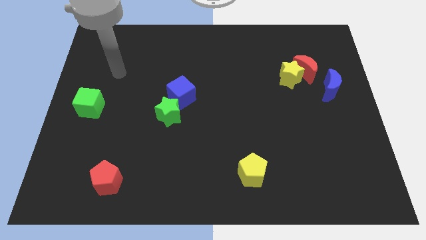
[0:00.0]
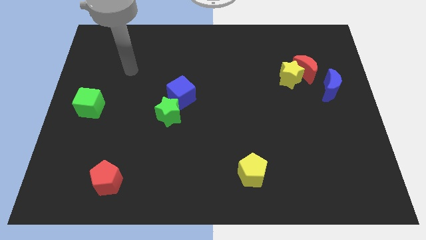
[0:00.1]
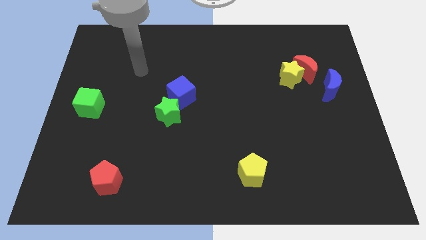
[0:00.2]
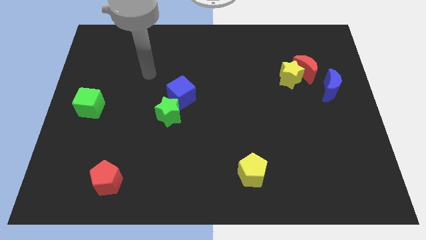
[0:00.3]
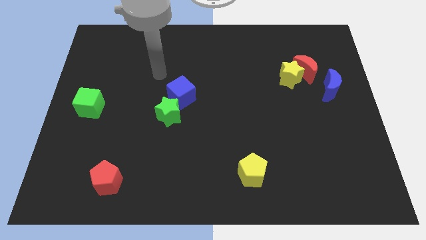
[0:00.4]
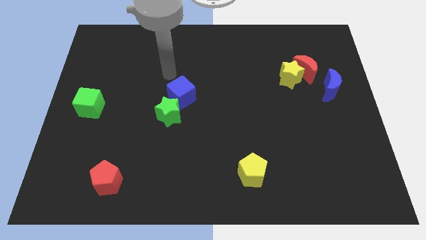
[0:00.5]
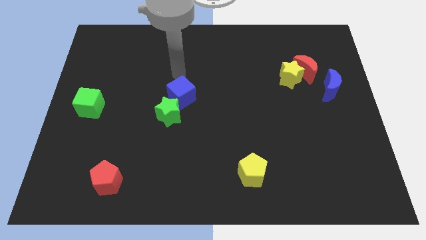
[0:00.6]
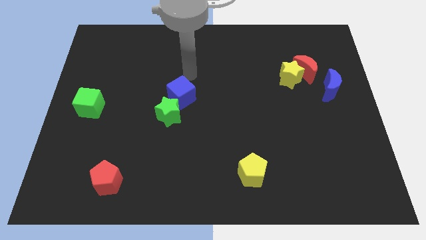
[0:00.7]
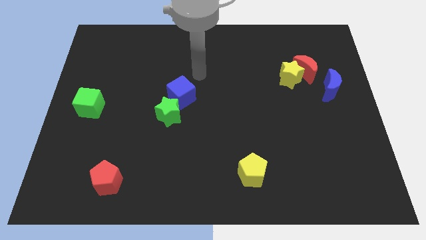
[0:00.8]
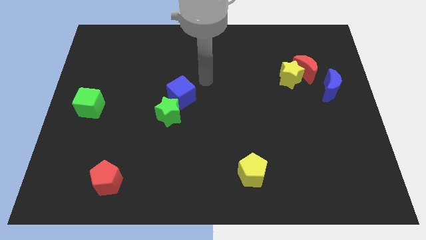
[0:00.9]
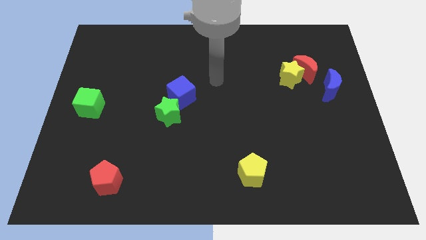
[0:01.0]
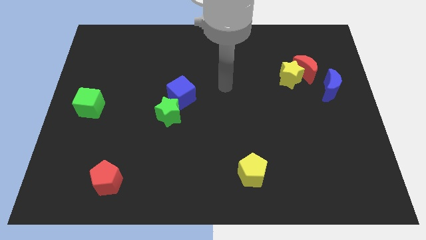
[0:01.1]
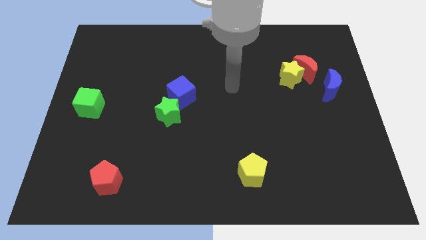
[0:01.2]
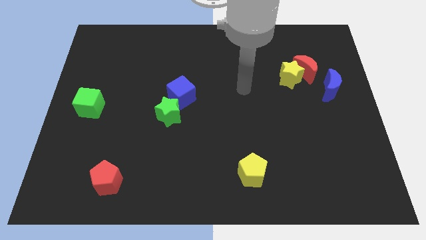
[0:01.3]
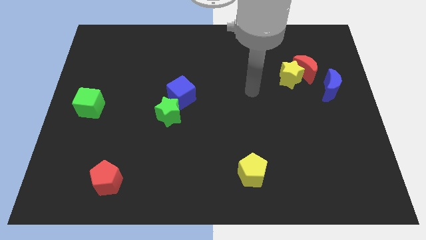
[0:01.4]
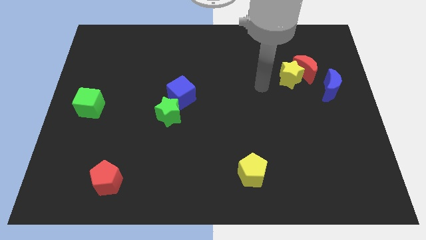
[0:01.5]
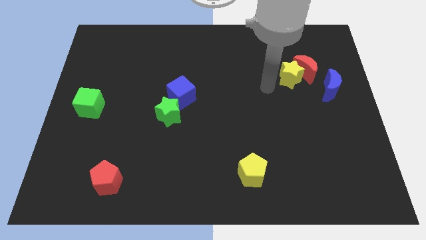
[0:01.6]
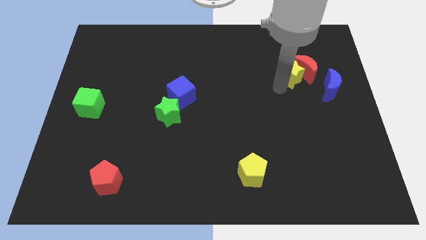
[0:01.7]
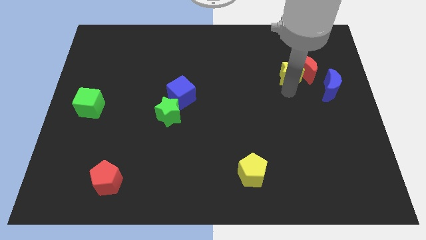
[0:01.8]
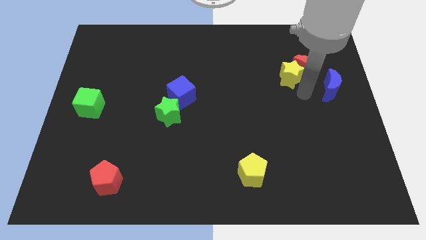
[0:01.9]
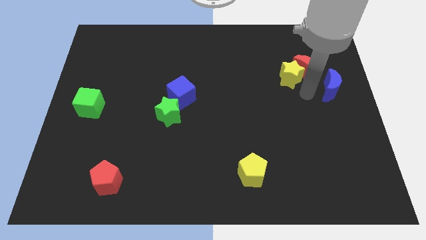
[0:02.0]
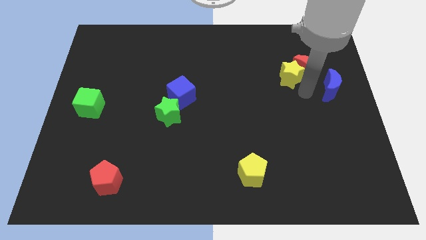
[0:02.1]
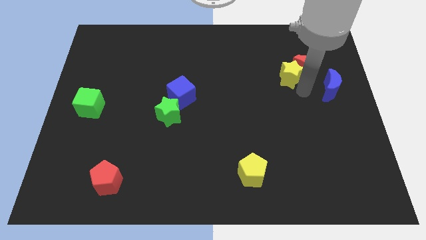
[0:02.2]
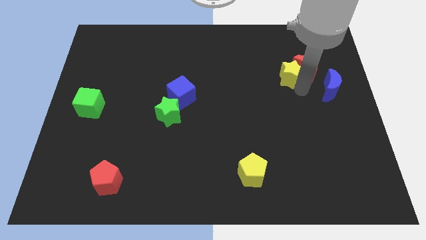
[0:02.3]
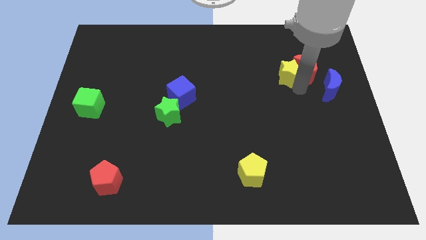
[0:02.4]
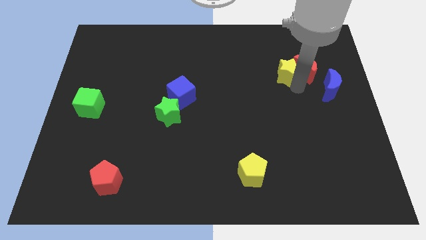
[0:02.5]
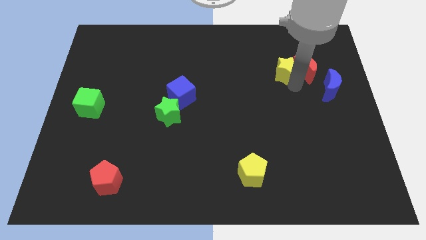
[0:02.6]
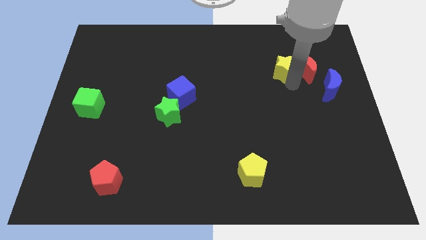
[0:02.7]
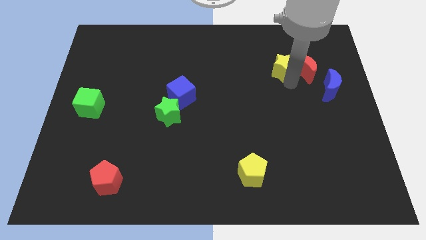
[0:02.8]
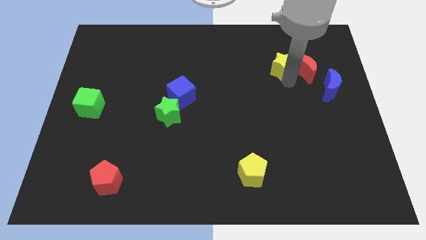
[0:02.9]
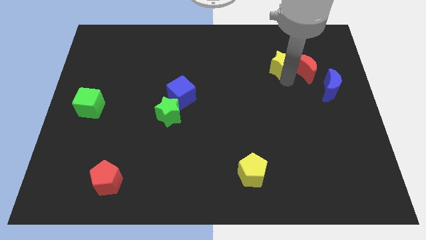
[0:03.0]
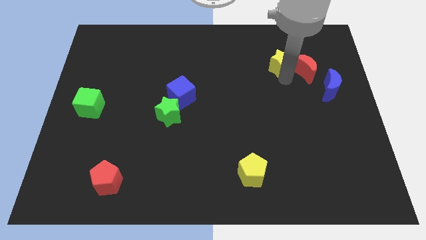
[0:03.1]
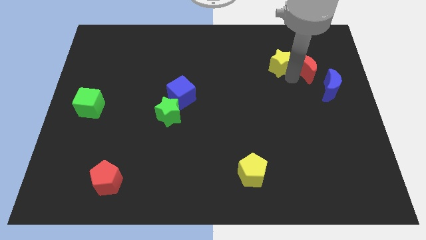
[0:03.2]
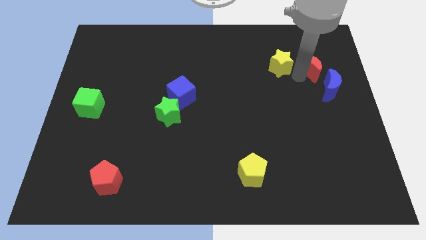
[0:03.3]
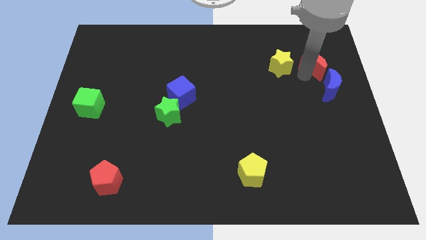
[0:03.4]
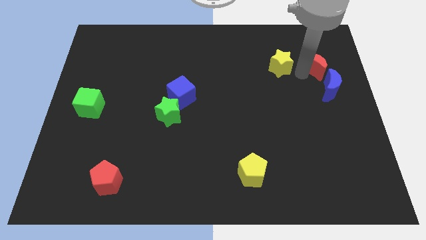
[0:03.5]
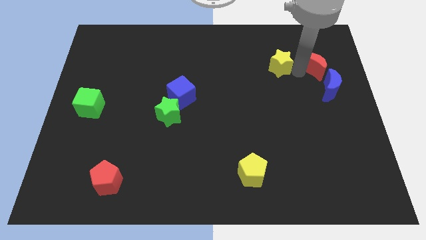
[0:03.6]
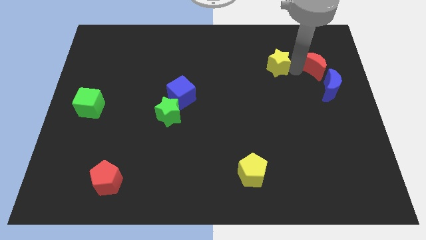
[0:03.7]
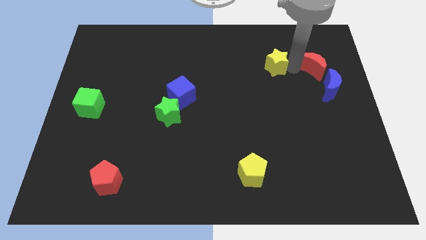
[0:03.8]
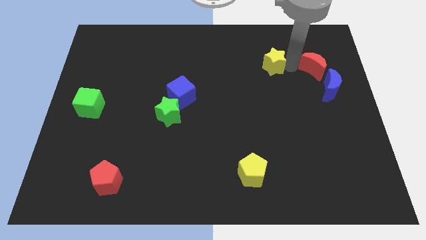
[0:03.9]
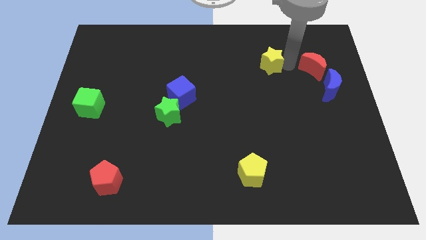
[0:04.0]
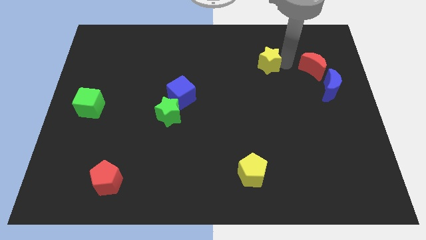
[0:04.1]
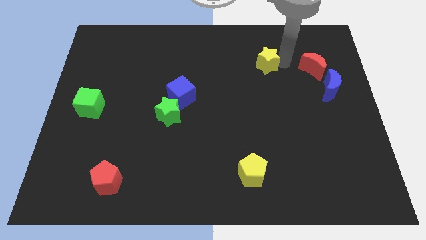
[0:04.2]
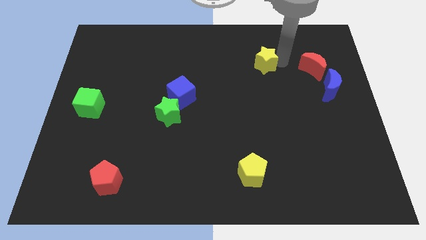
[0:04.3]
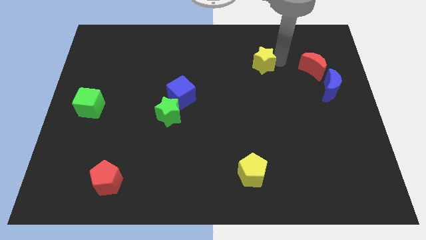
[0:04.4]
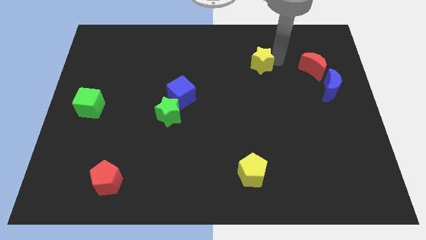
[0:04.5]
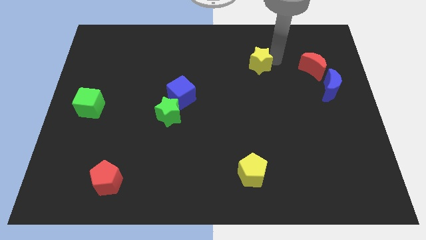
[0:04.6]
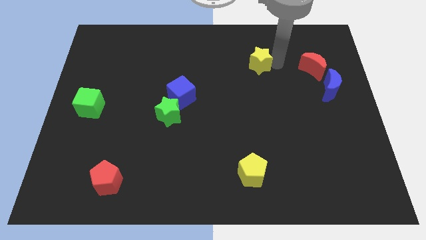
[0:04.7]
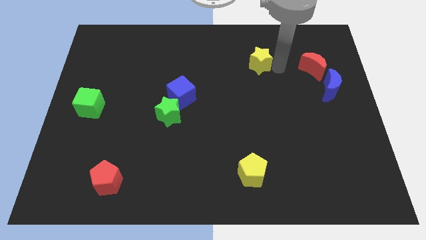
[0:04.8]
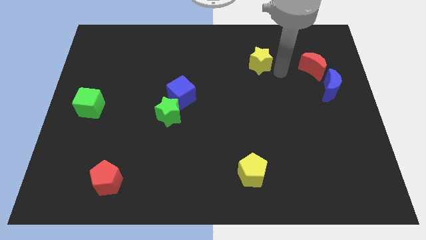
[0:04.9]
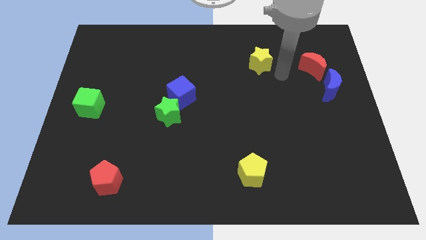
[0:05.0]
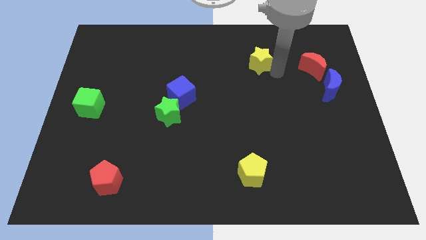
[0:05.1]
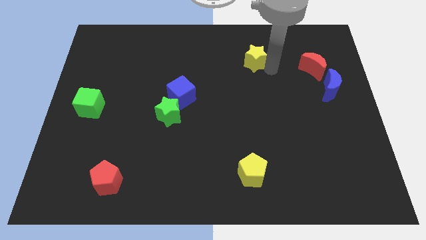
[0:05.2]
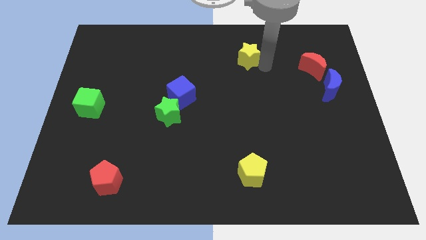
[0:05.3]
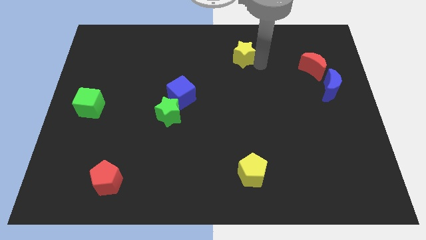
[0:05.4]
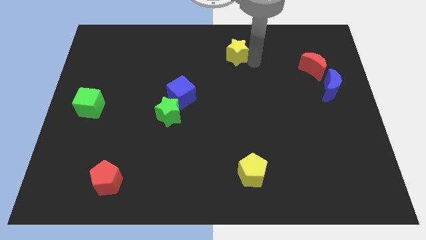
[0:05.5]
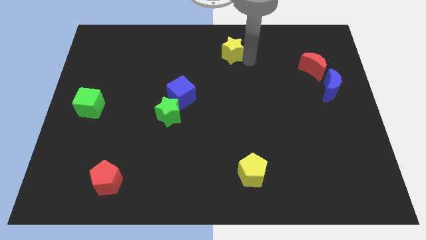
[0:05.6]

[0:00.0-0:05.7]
move the yellow star to the towards your base

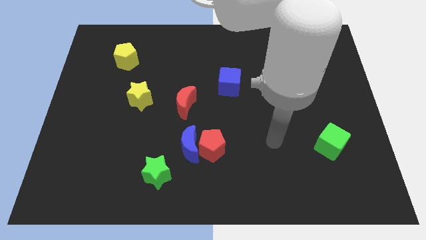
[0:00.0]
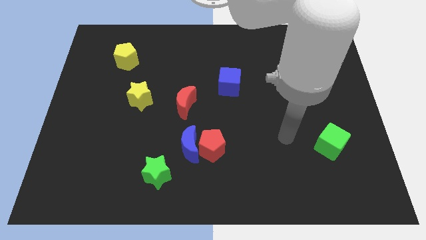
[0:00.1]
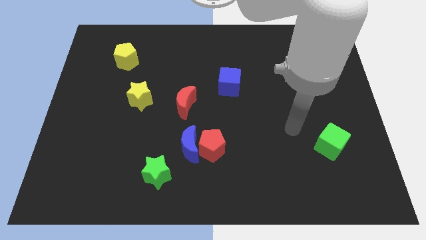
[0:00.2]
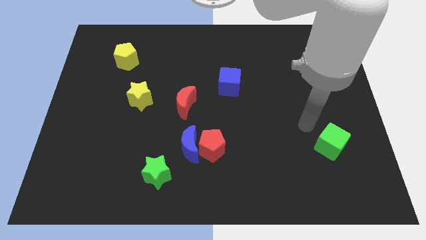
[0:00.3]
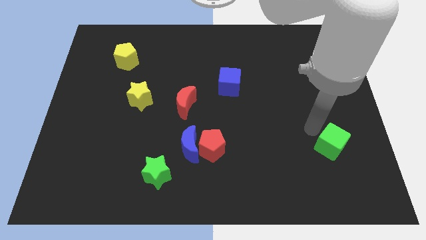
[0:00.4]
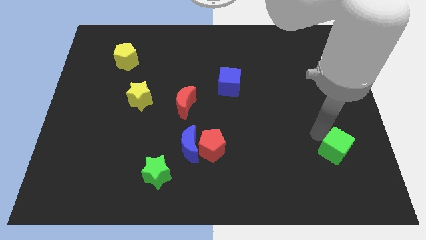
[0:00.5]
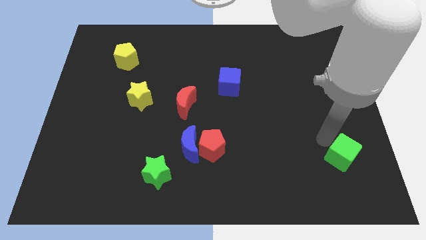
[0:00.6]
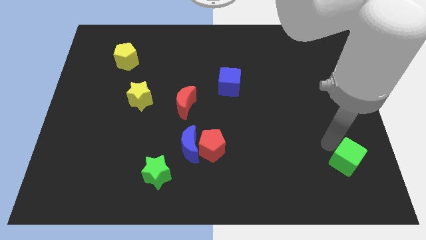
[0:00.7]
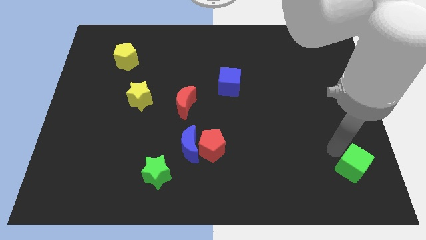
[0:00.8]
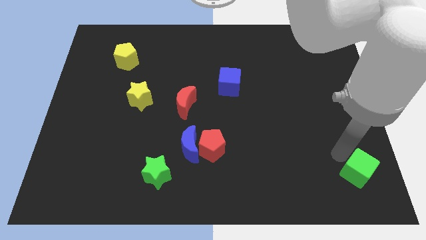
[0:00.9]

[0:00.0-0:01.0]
put the green cube to the lower right corner
